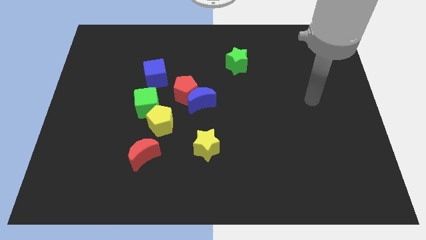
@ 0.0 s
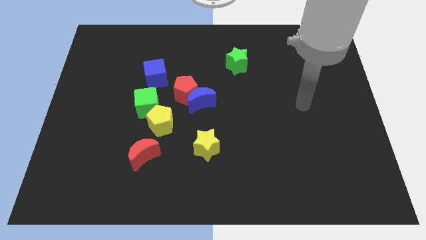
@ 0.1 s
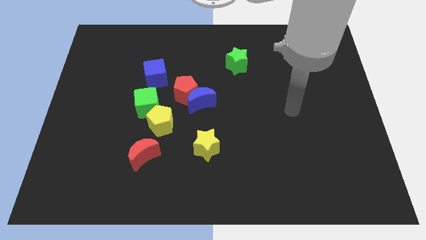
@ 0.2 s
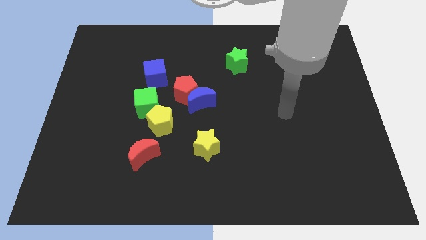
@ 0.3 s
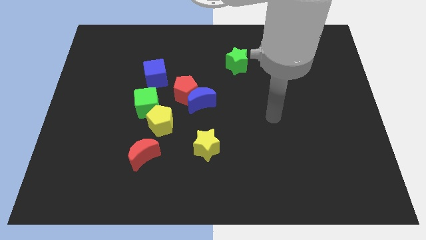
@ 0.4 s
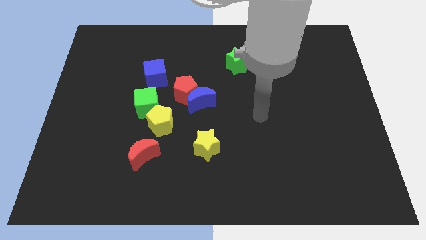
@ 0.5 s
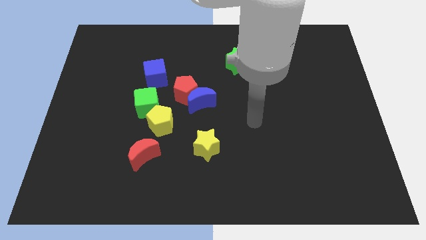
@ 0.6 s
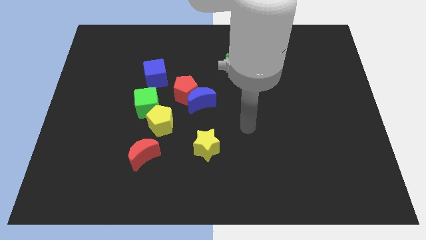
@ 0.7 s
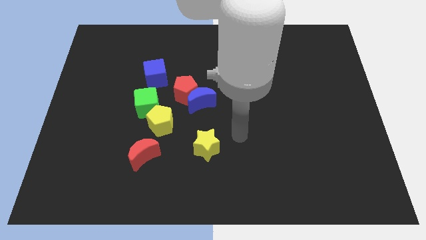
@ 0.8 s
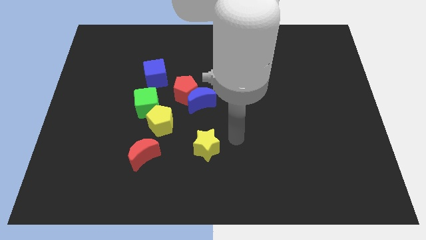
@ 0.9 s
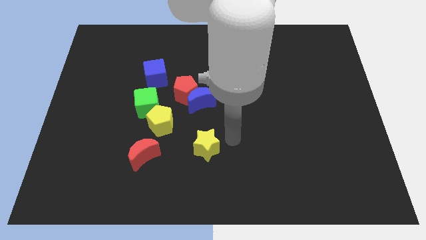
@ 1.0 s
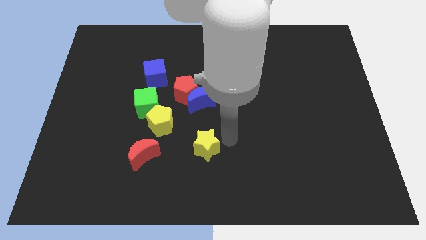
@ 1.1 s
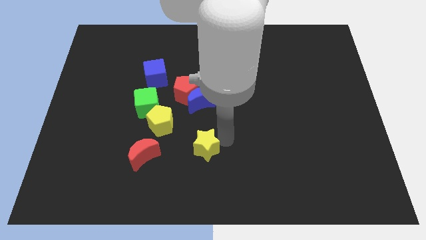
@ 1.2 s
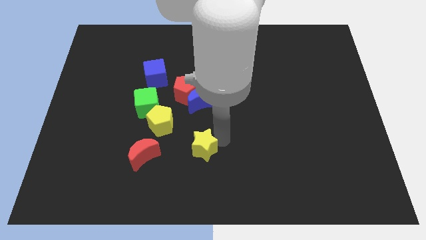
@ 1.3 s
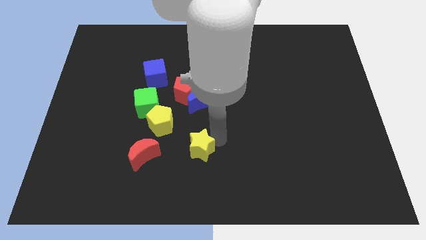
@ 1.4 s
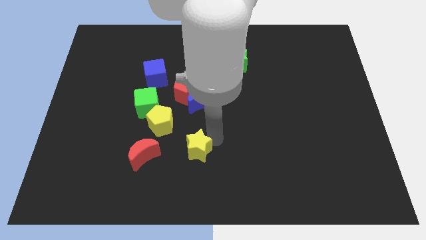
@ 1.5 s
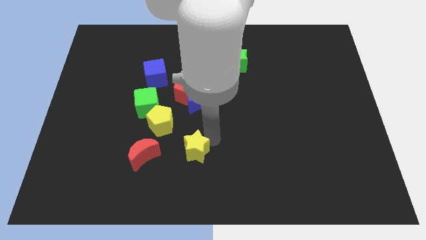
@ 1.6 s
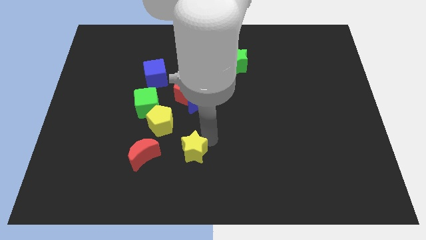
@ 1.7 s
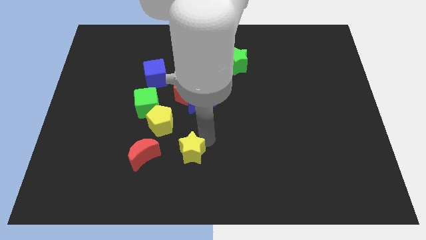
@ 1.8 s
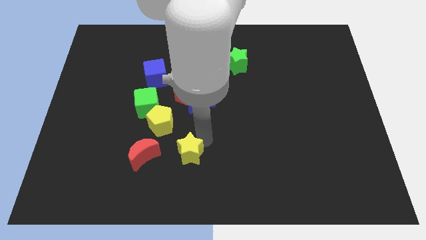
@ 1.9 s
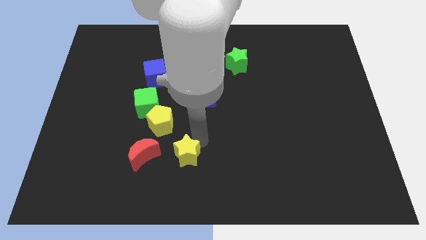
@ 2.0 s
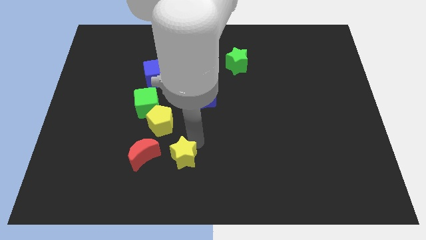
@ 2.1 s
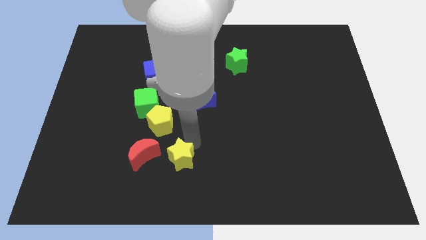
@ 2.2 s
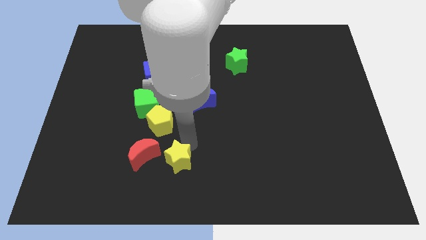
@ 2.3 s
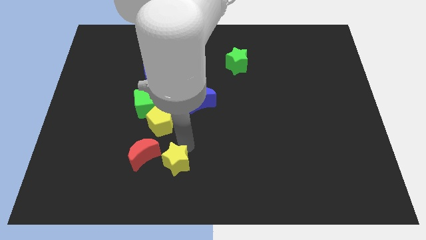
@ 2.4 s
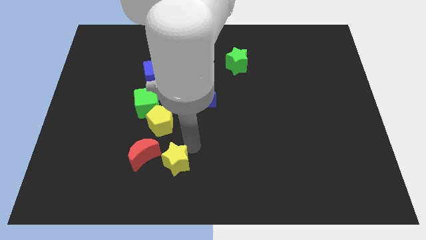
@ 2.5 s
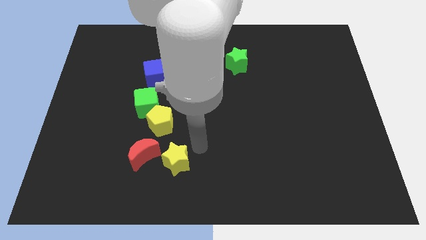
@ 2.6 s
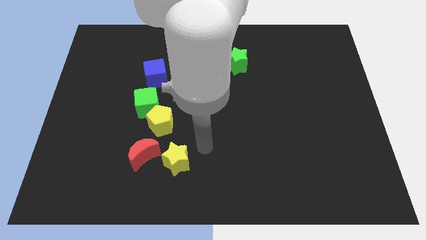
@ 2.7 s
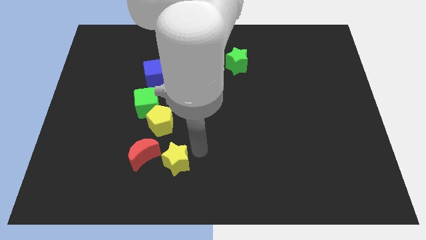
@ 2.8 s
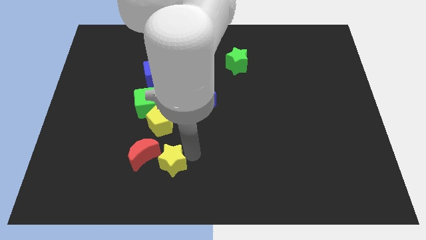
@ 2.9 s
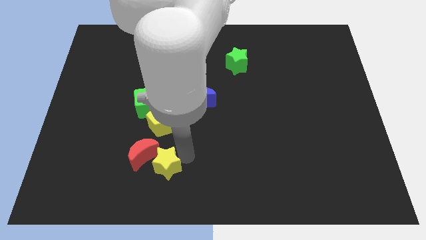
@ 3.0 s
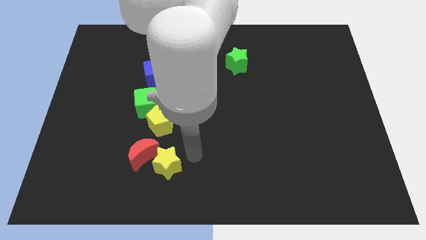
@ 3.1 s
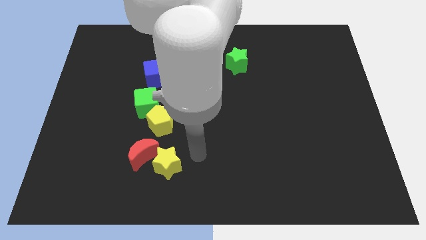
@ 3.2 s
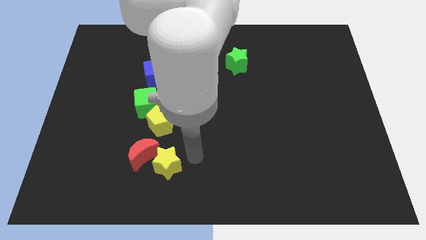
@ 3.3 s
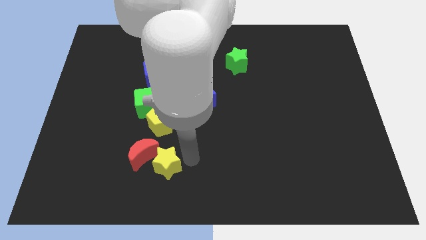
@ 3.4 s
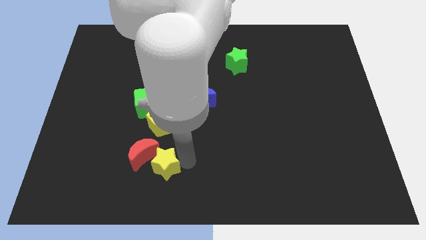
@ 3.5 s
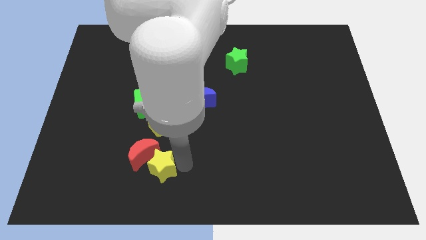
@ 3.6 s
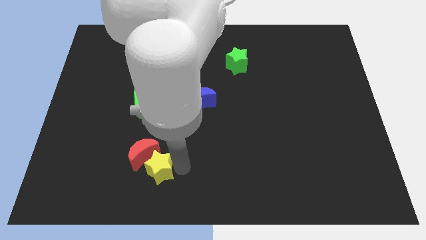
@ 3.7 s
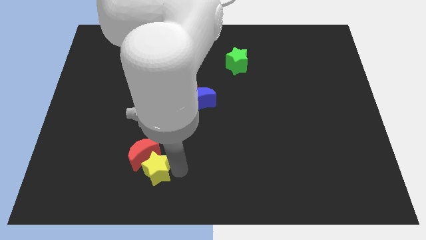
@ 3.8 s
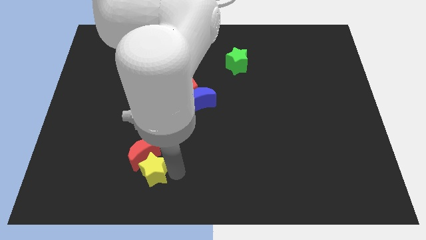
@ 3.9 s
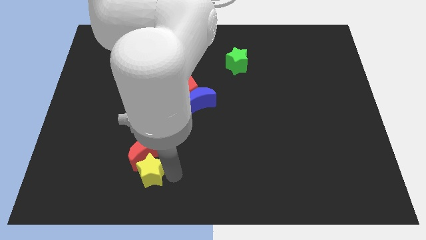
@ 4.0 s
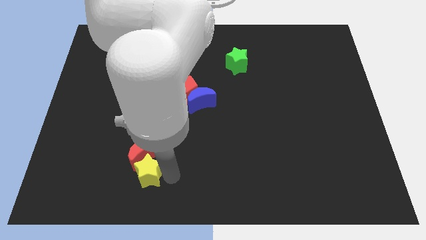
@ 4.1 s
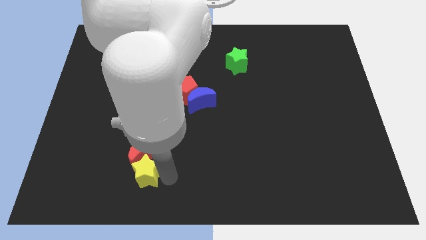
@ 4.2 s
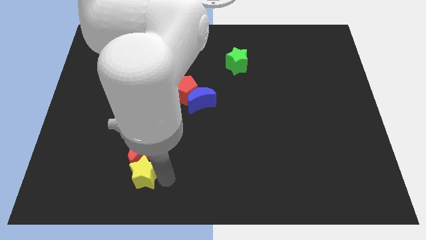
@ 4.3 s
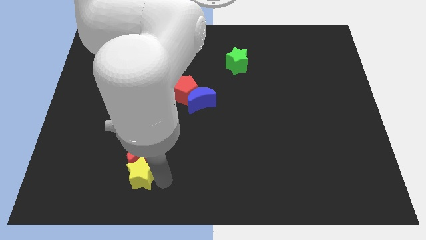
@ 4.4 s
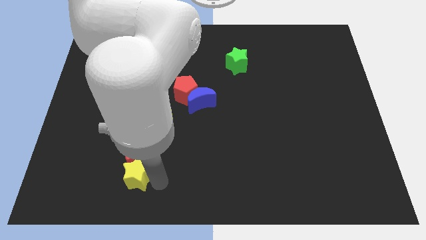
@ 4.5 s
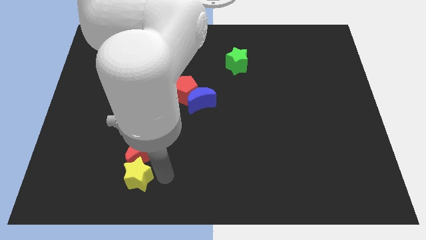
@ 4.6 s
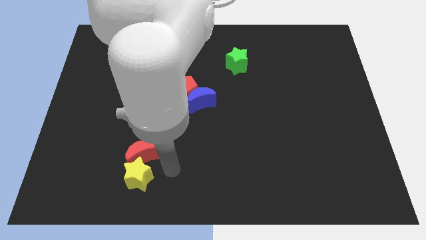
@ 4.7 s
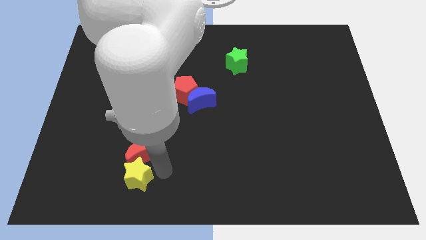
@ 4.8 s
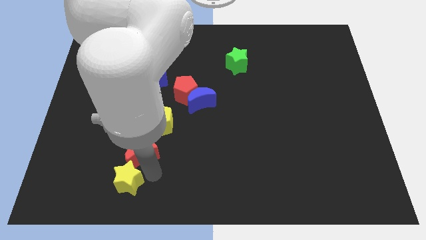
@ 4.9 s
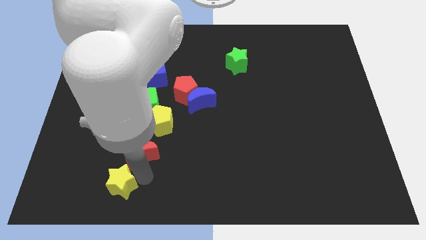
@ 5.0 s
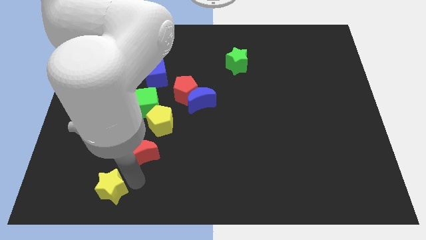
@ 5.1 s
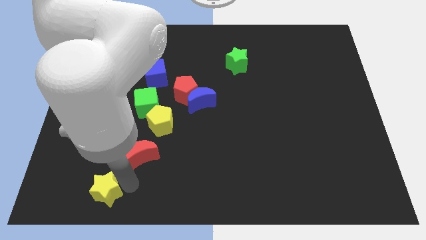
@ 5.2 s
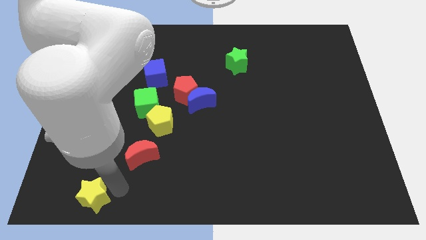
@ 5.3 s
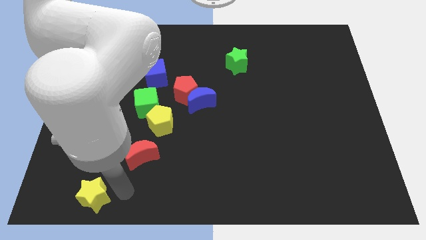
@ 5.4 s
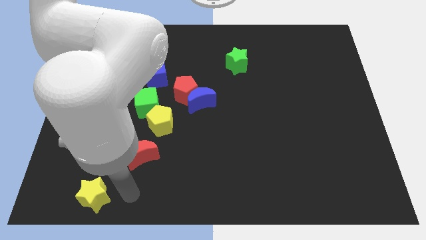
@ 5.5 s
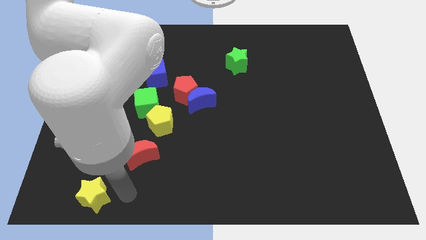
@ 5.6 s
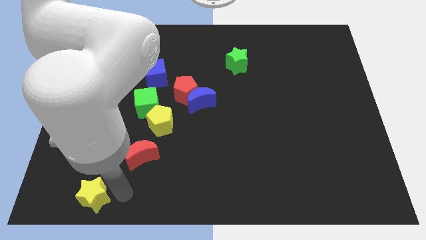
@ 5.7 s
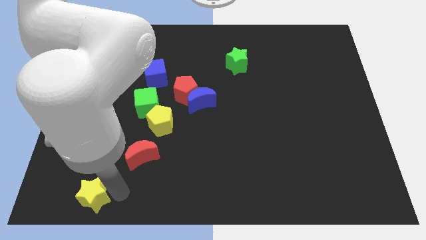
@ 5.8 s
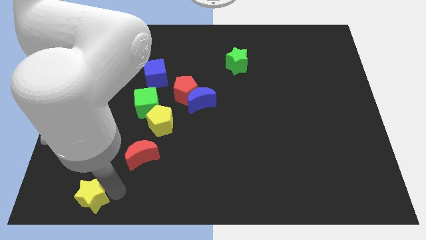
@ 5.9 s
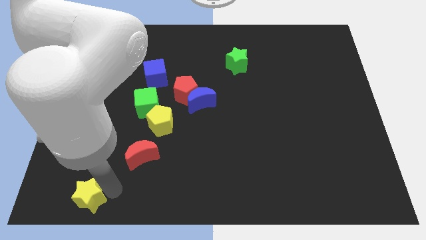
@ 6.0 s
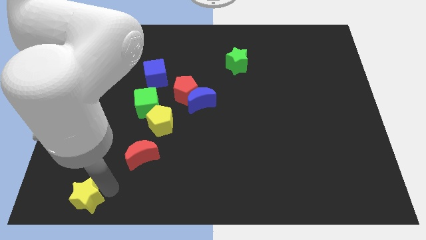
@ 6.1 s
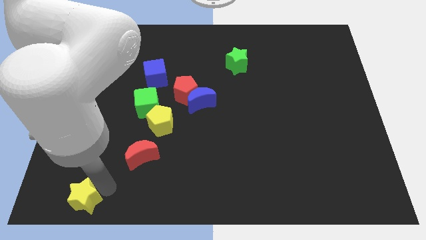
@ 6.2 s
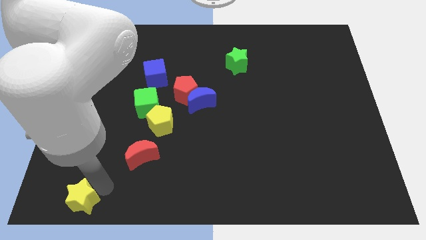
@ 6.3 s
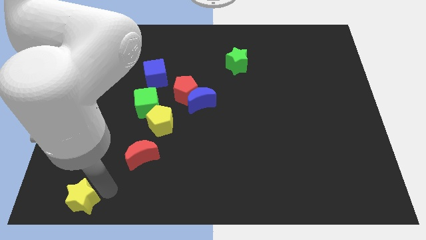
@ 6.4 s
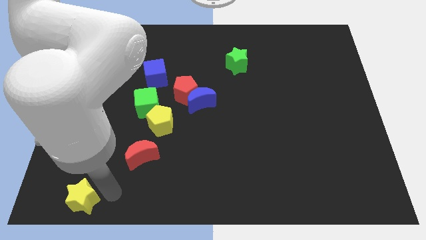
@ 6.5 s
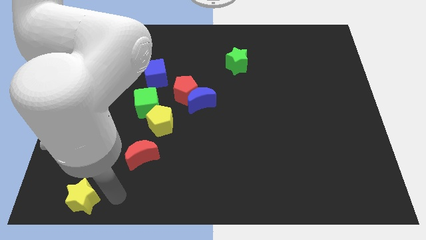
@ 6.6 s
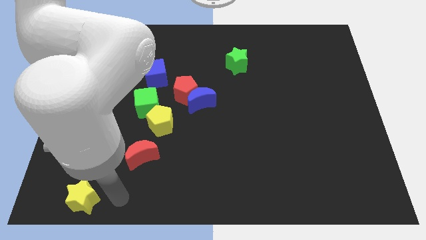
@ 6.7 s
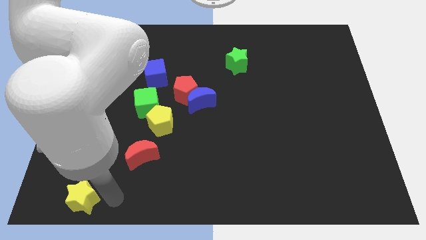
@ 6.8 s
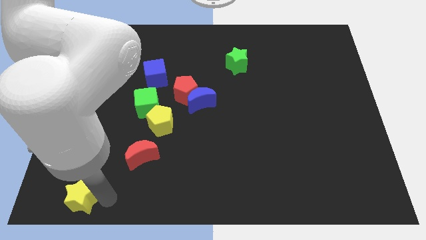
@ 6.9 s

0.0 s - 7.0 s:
put the yellow star to the bottom left of the board
